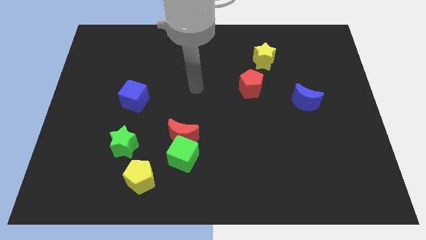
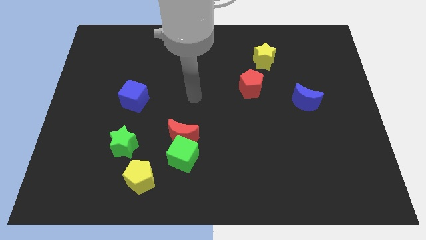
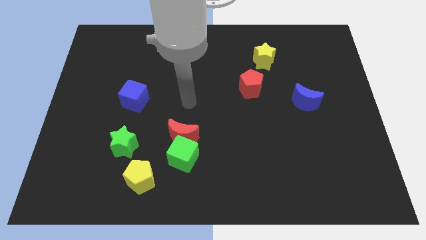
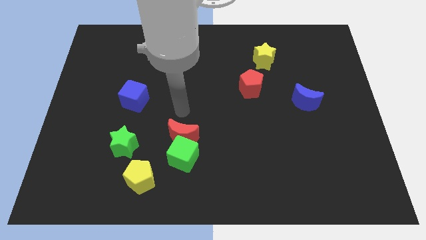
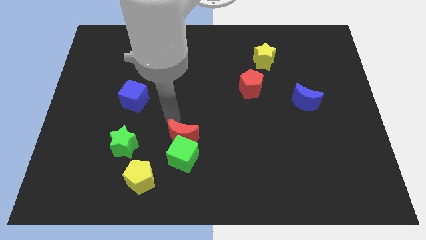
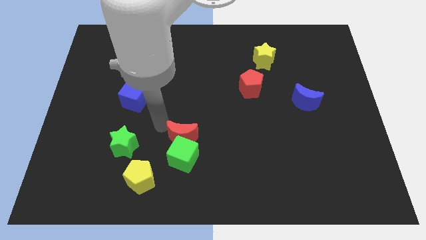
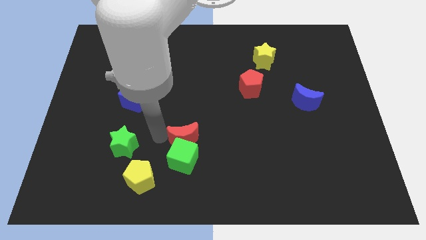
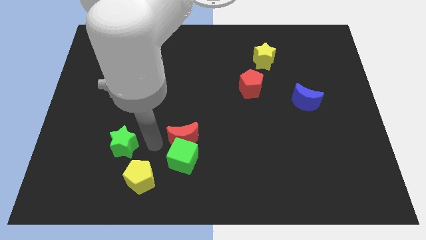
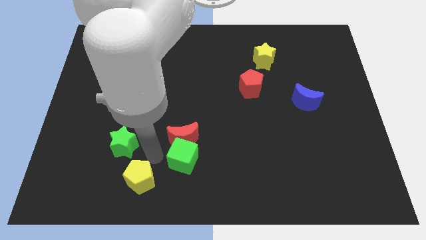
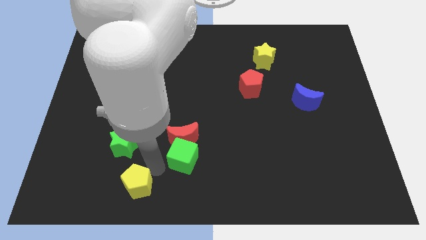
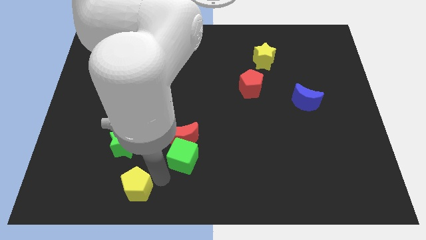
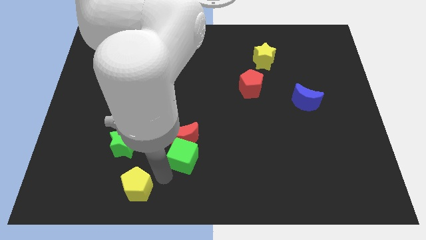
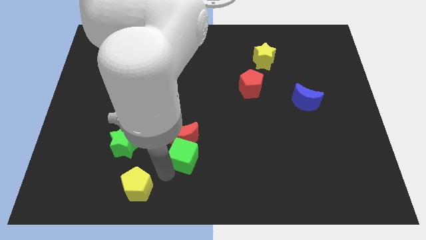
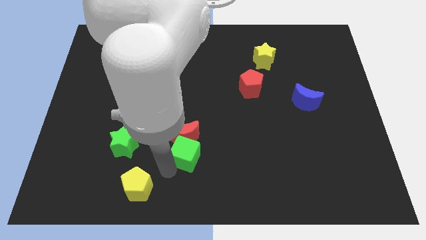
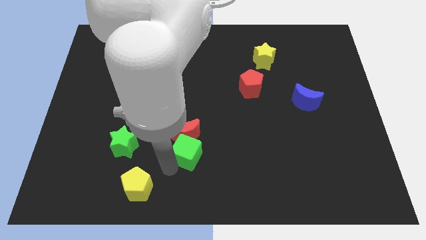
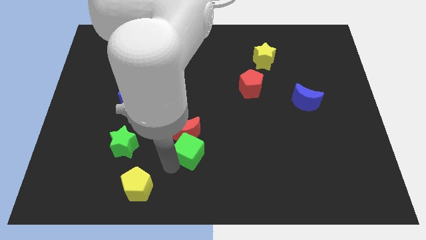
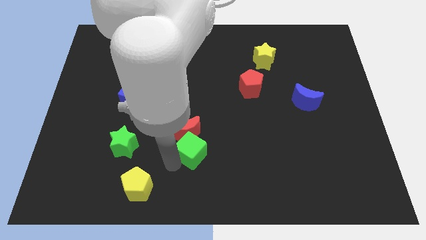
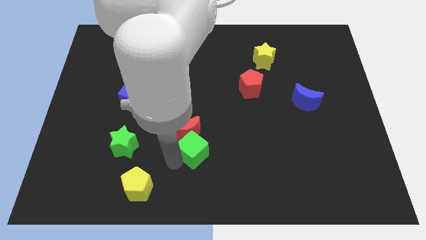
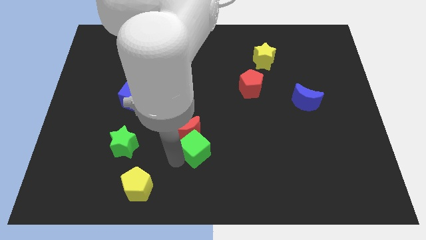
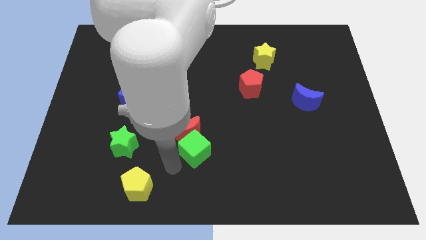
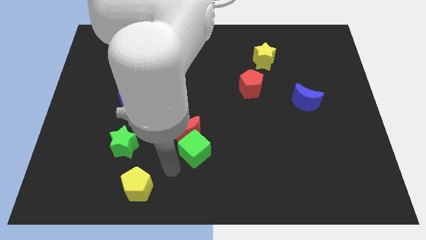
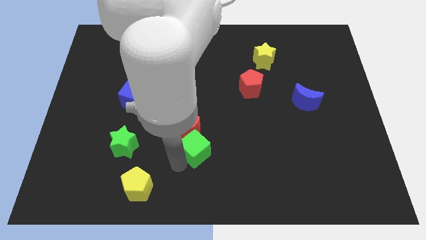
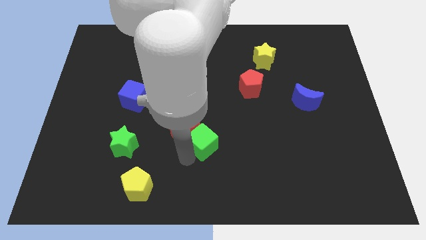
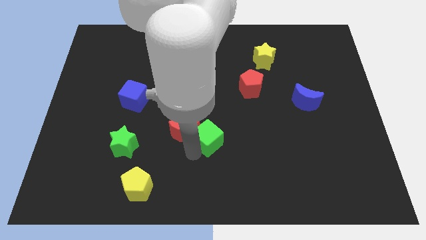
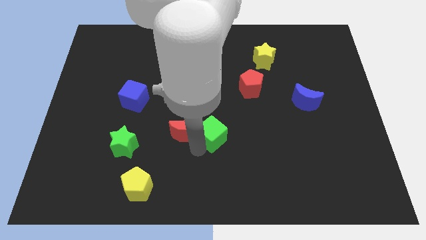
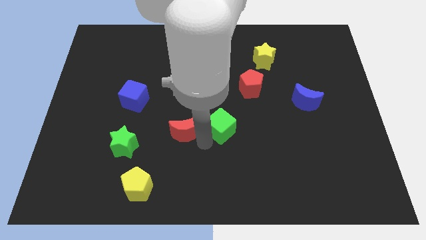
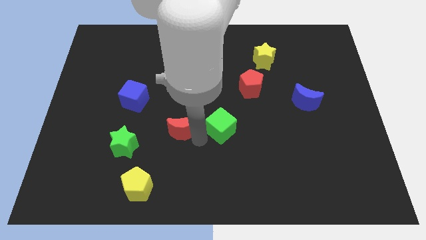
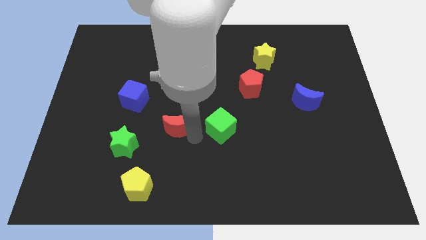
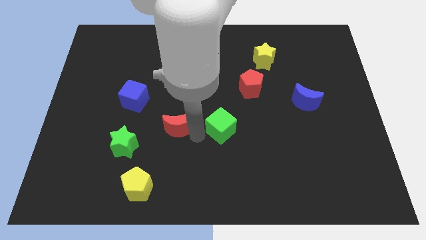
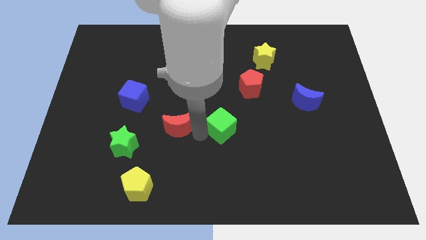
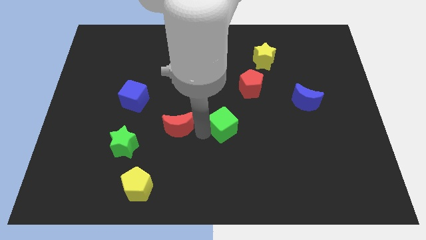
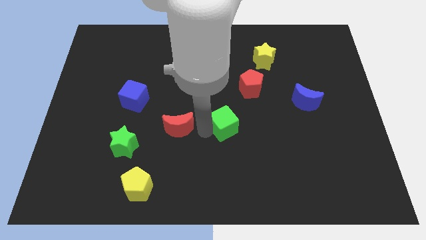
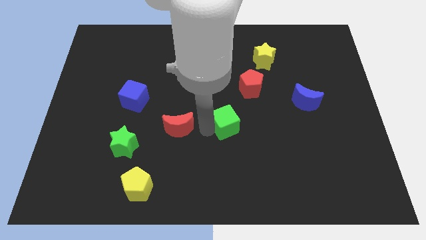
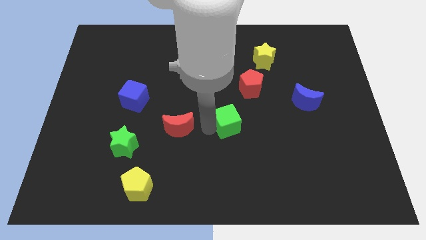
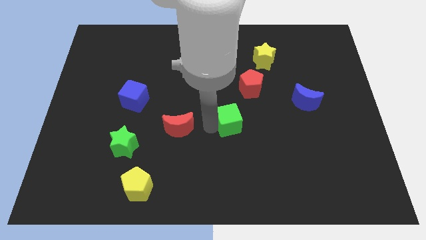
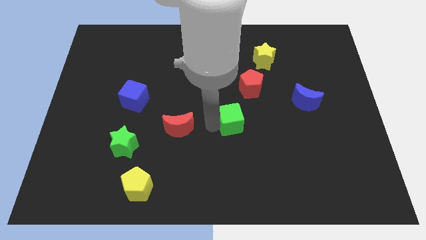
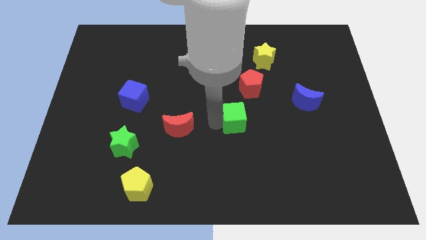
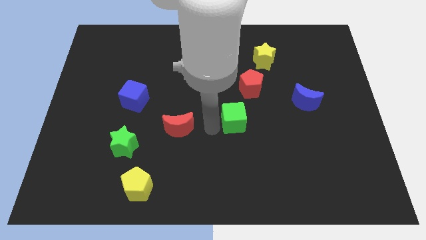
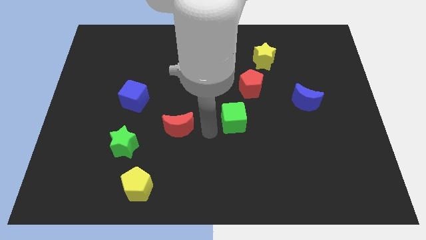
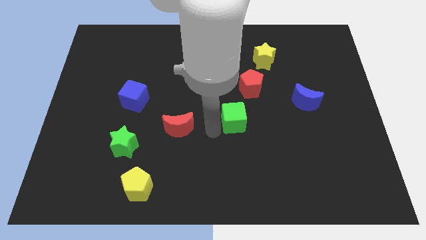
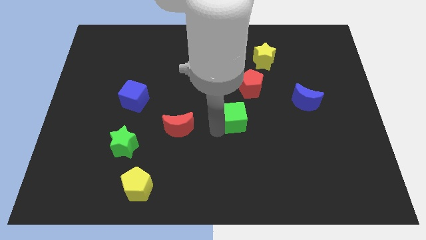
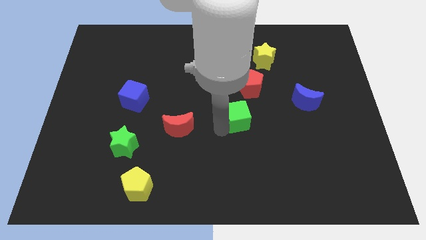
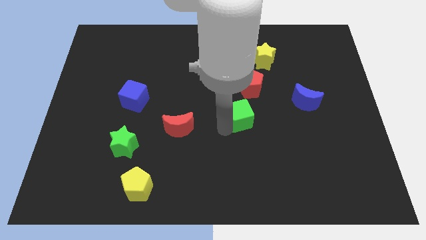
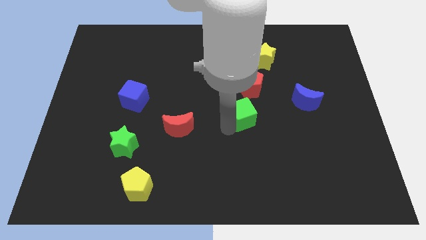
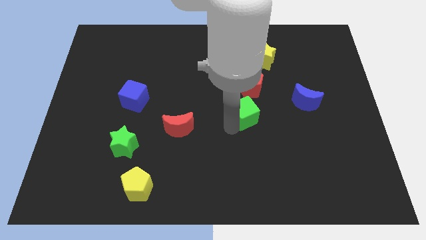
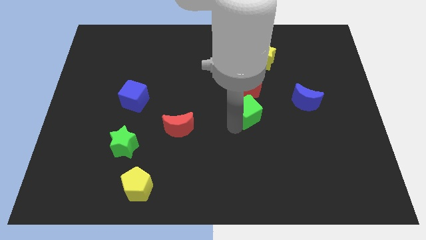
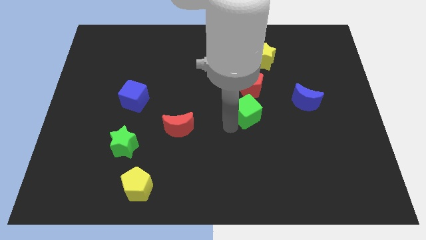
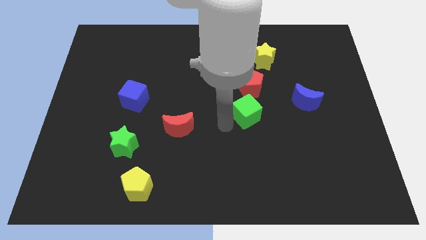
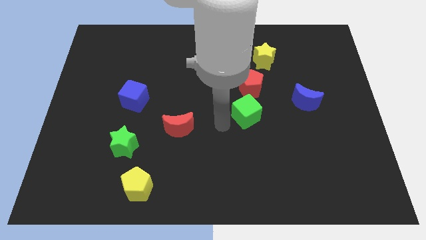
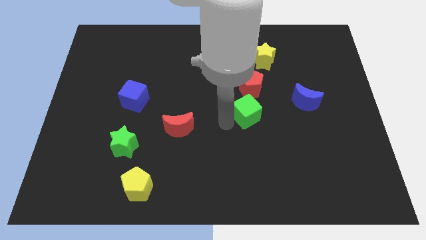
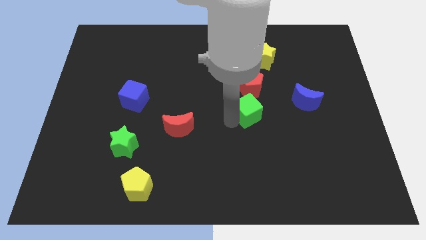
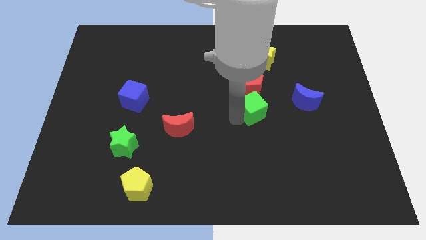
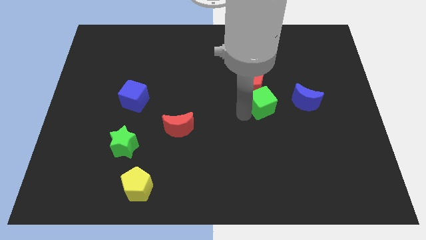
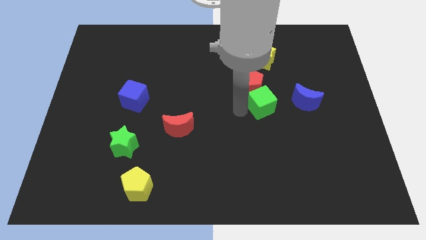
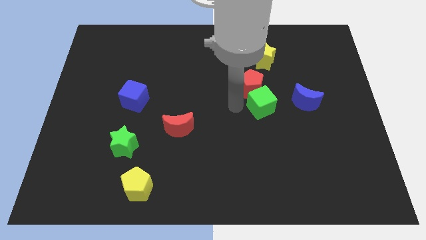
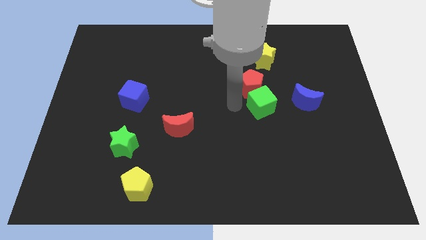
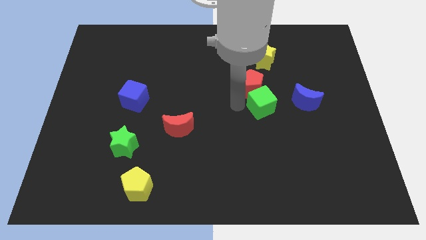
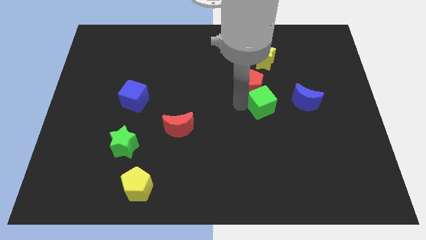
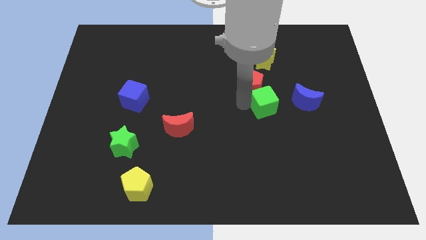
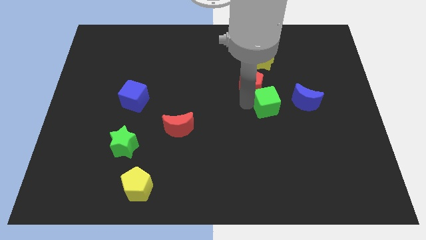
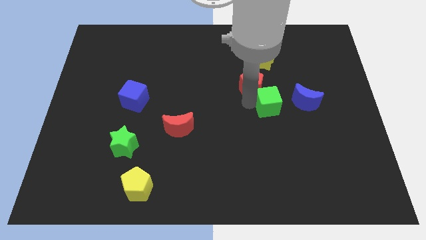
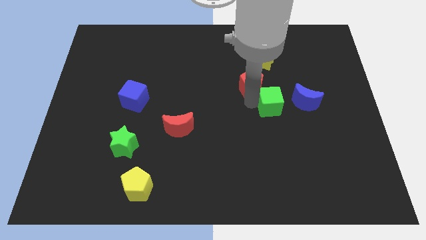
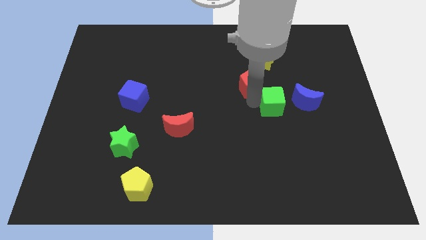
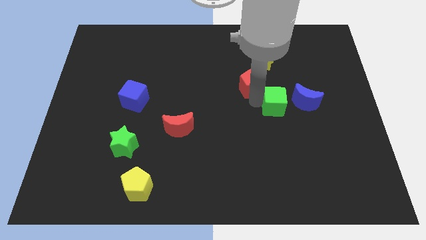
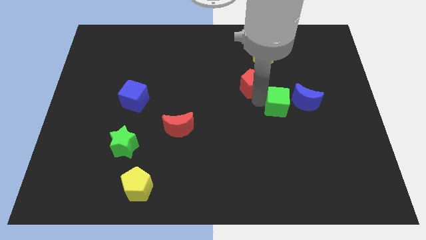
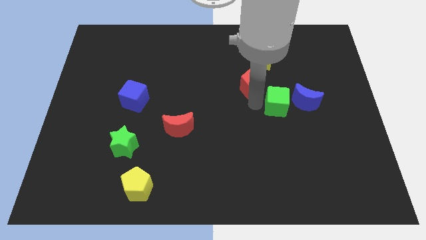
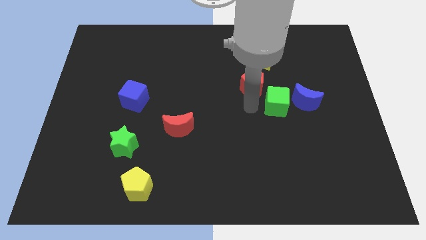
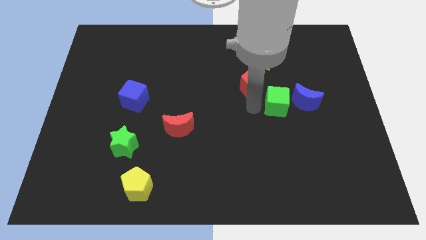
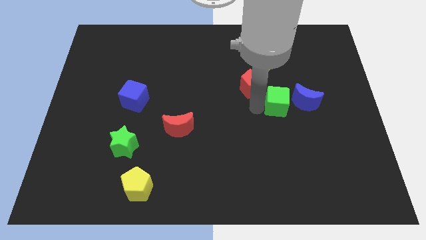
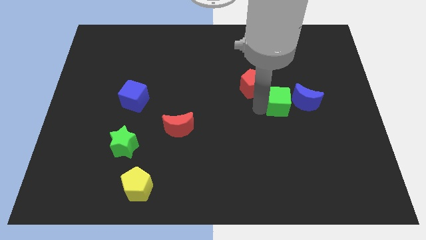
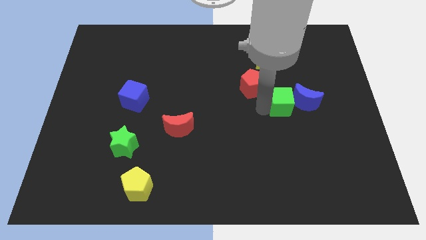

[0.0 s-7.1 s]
push the green cube close to the blue moon
